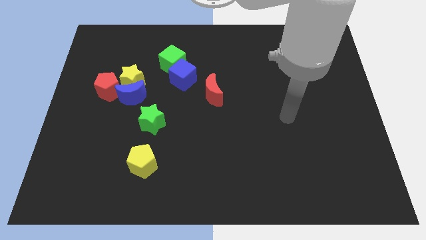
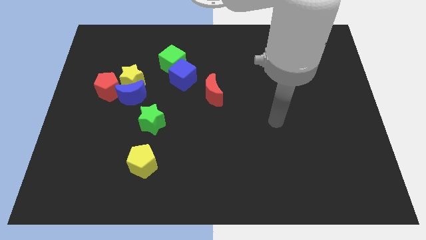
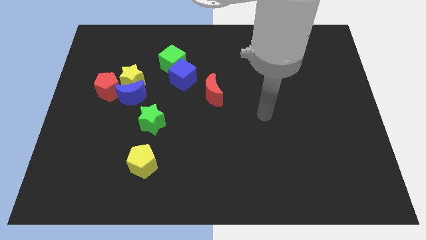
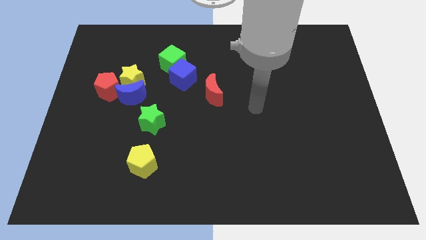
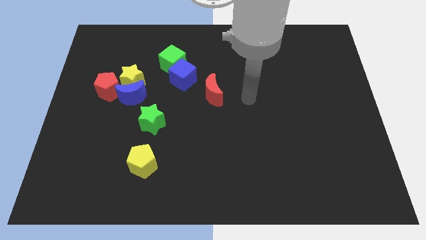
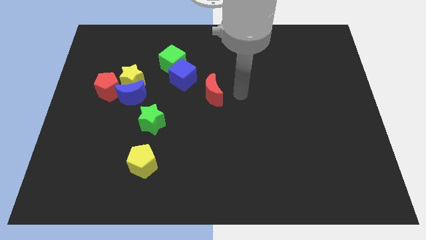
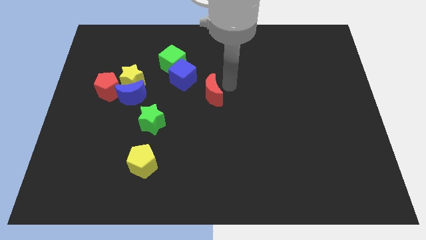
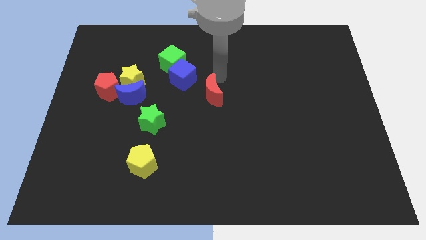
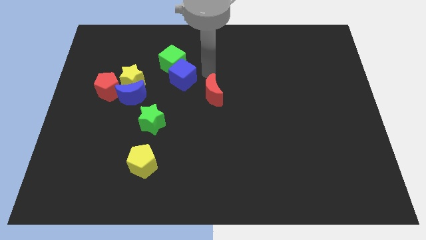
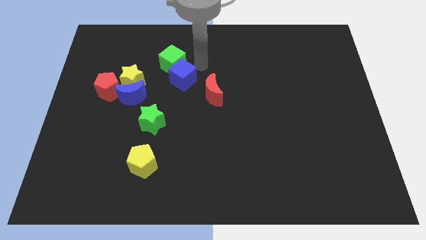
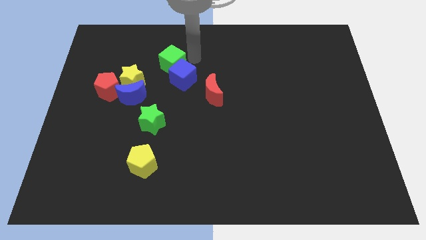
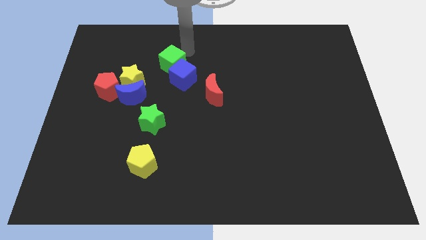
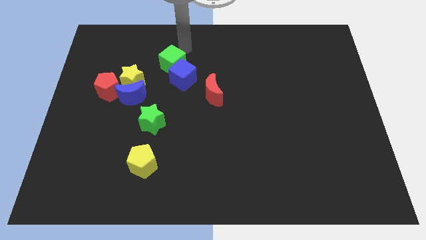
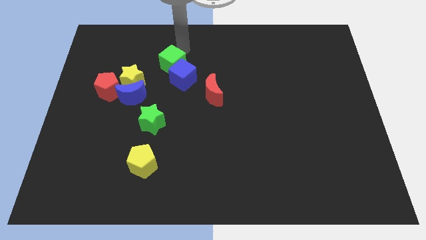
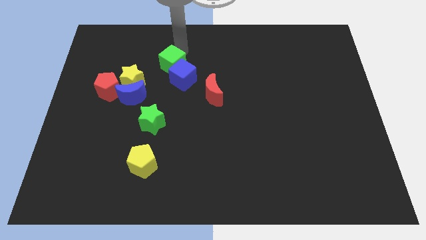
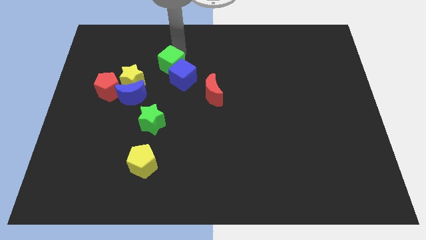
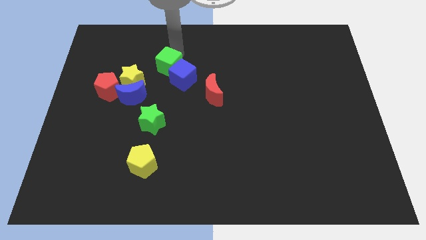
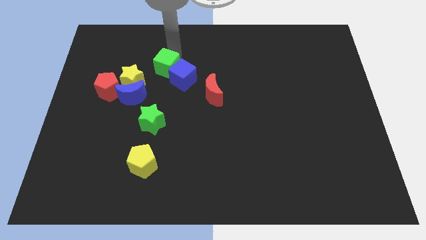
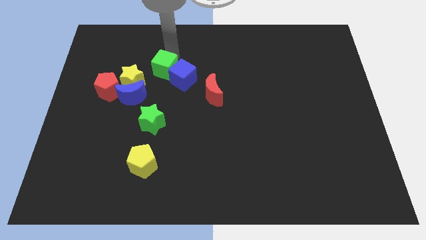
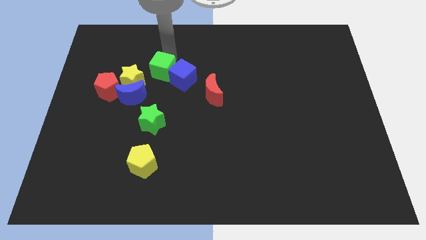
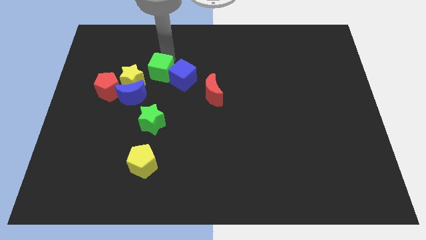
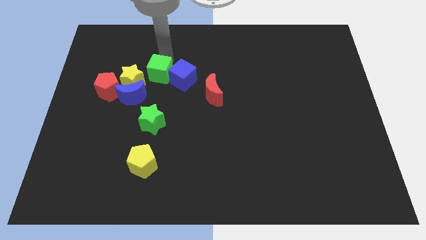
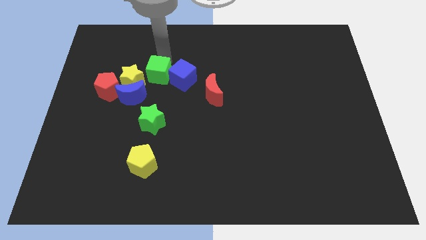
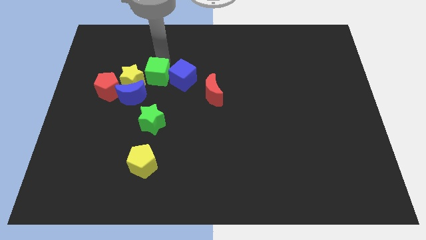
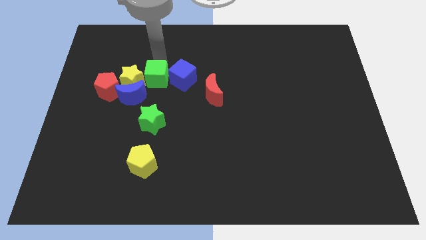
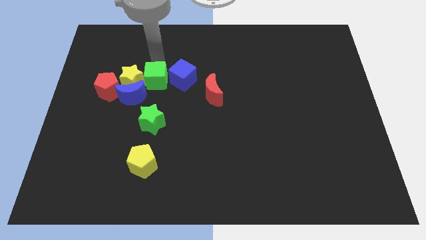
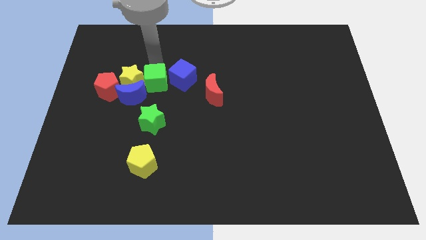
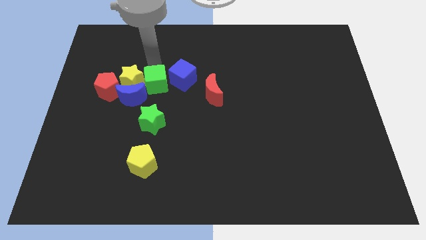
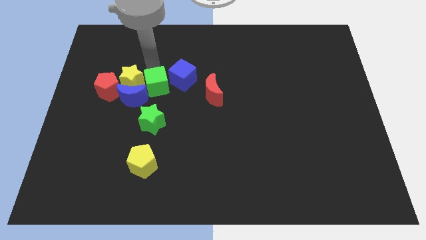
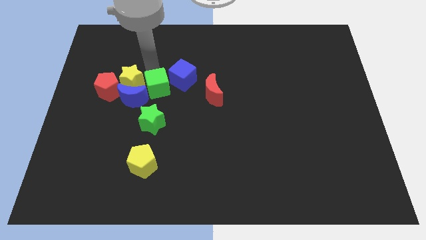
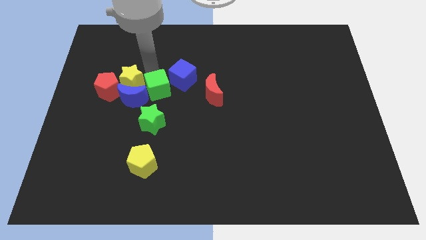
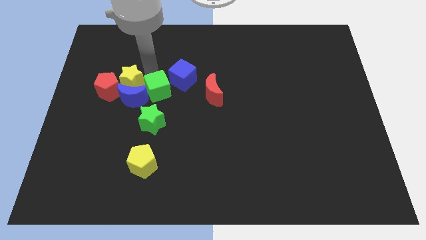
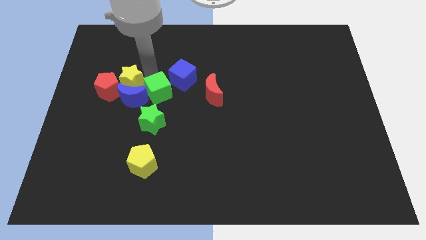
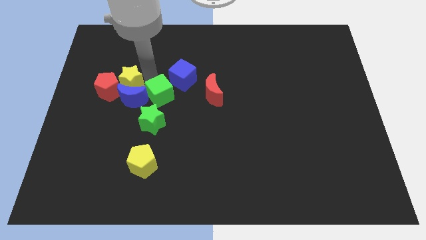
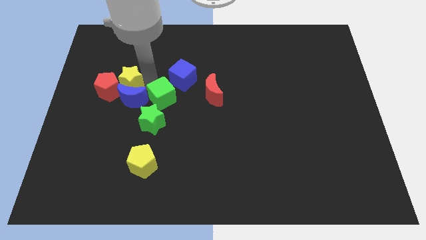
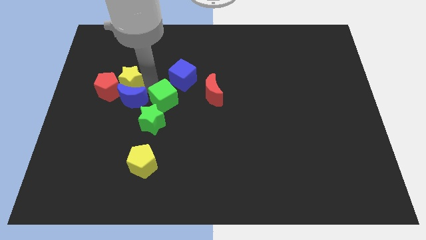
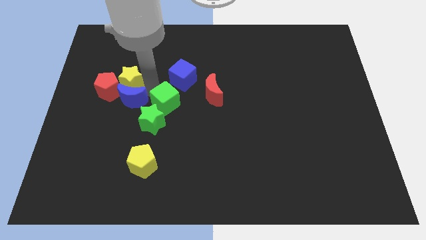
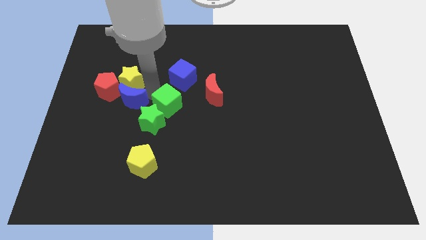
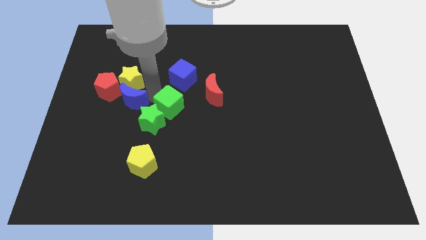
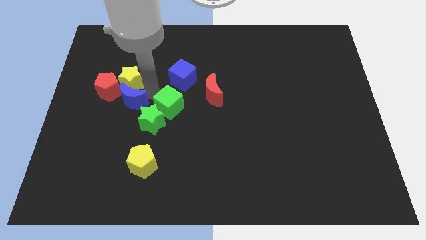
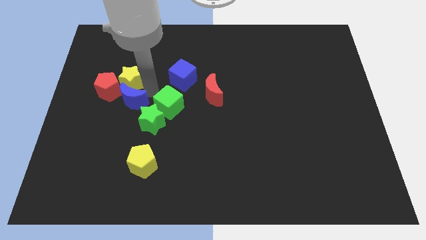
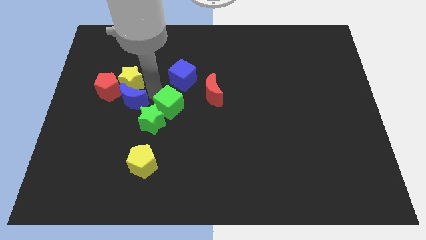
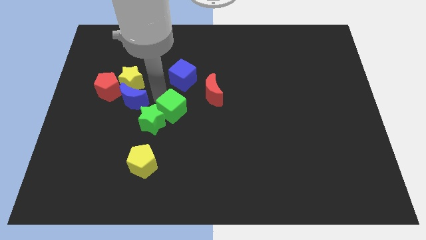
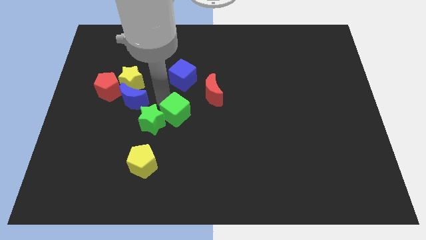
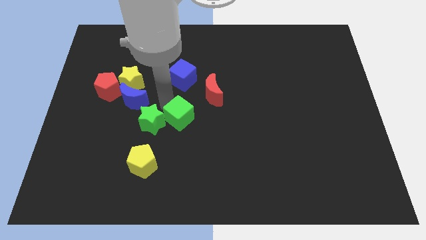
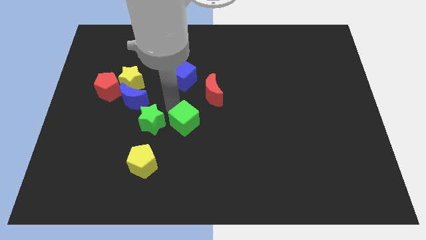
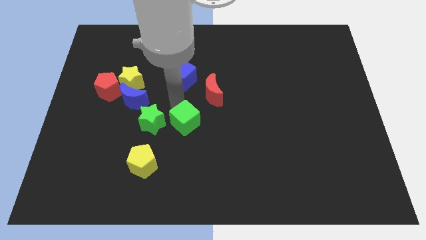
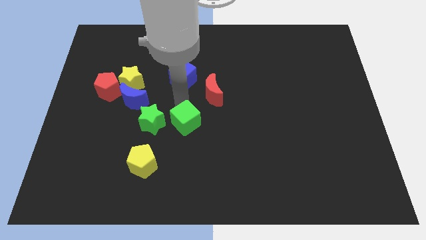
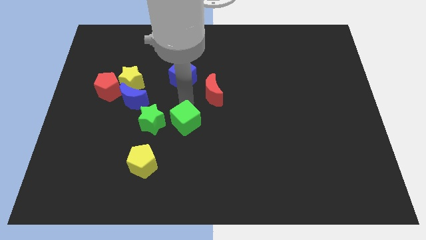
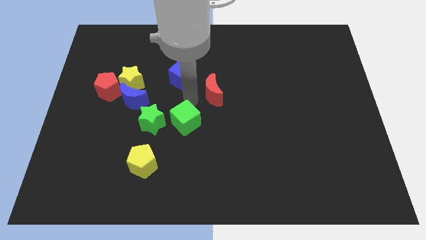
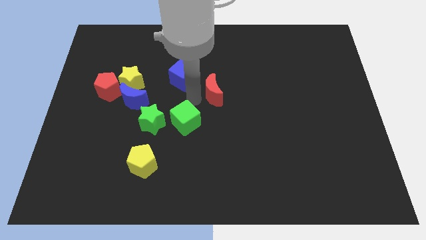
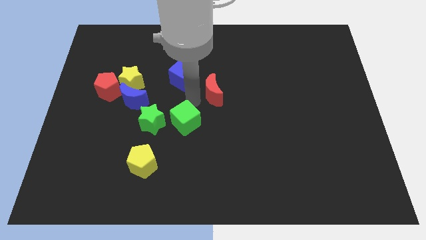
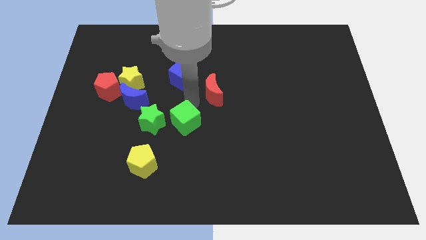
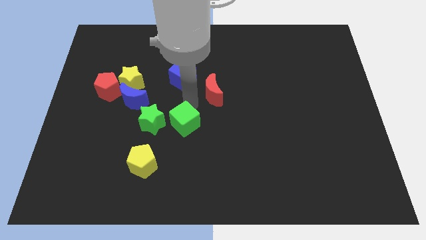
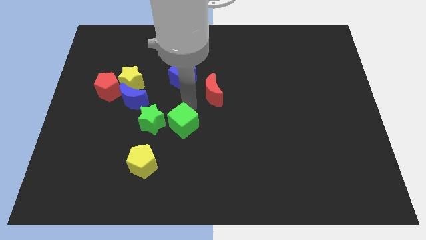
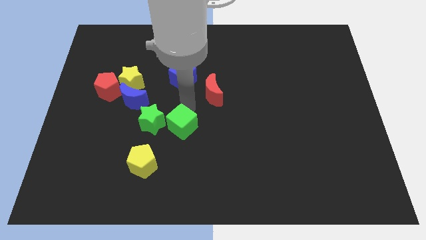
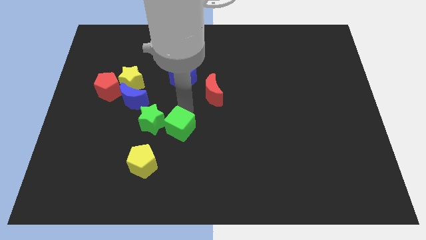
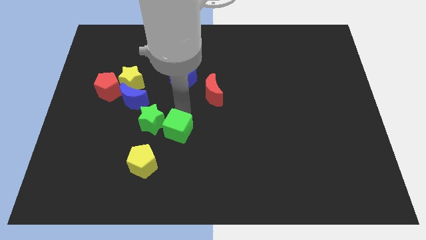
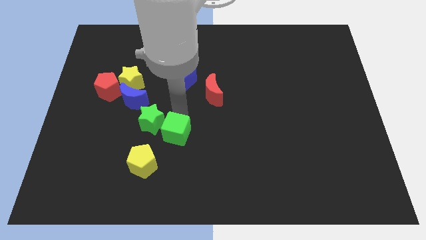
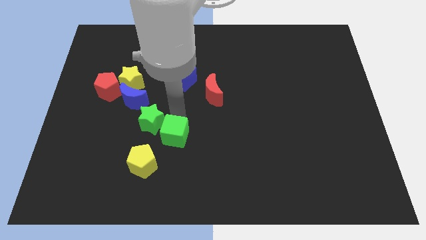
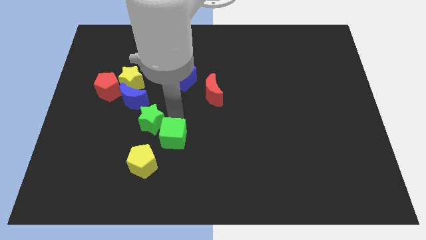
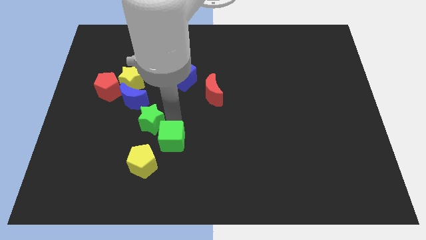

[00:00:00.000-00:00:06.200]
move the green cube below the green star

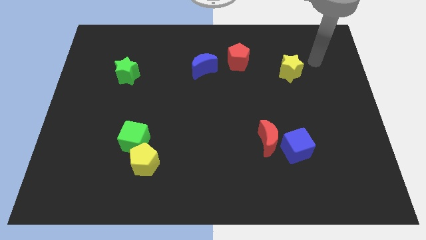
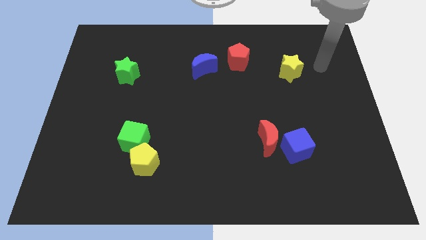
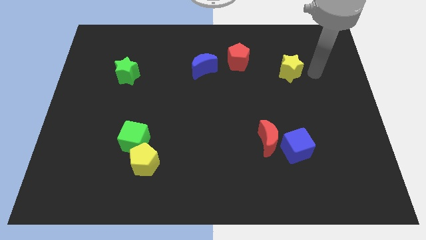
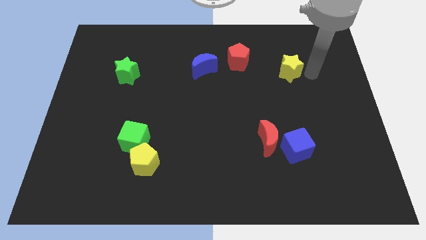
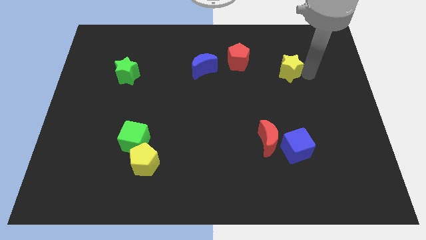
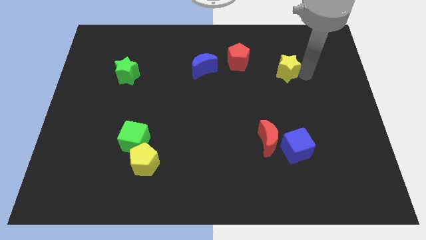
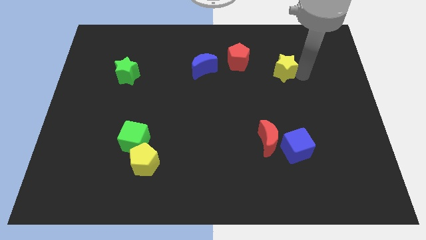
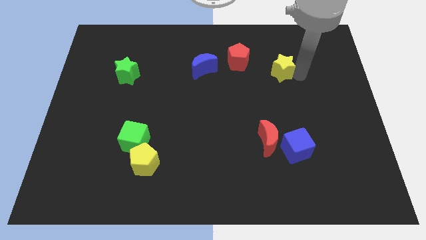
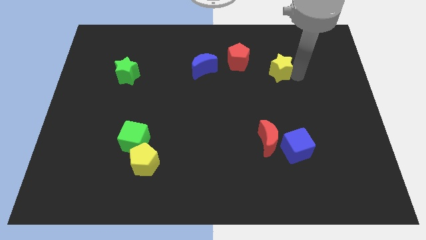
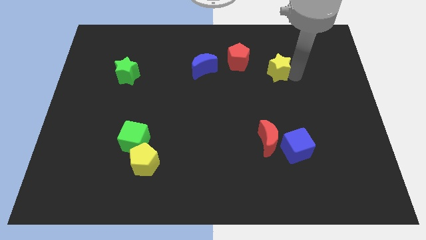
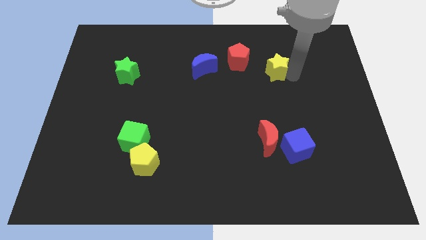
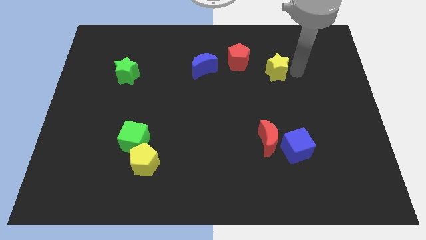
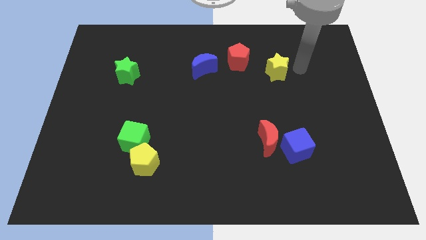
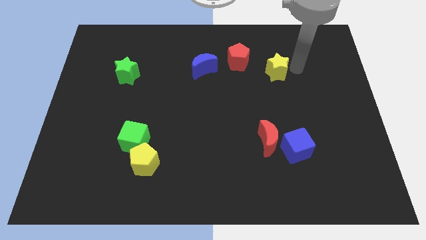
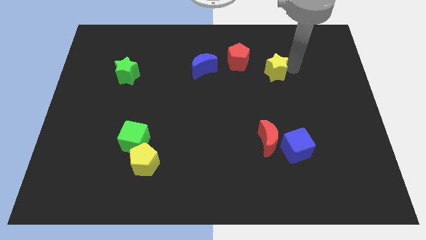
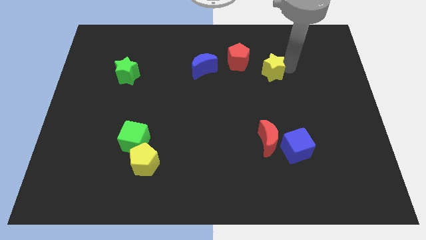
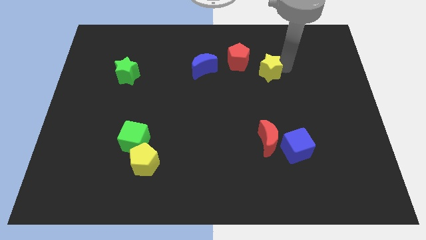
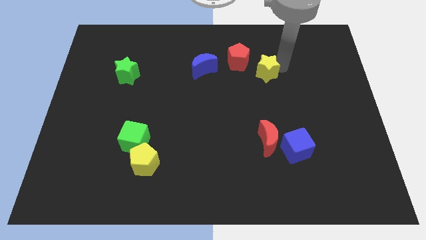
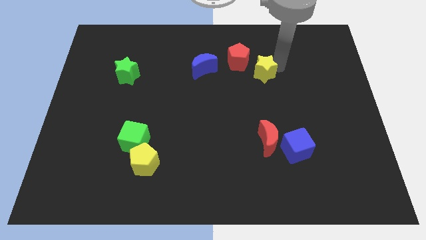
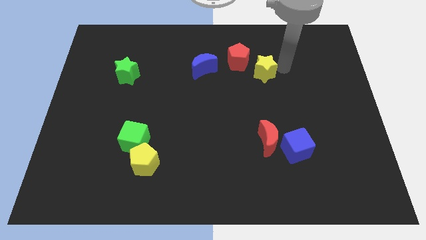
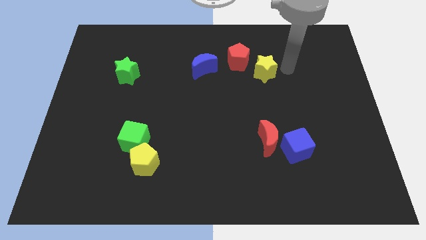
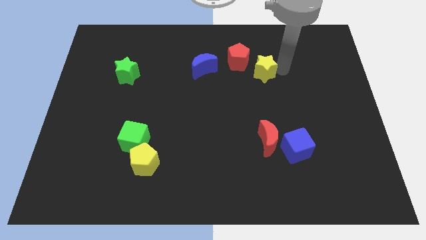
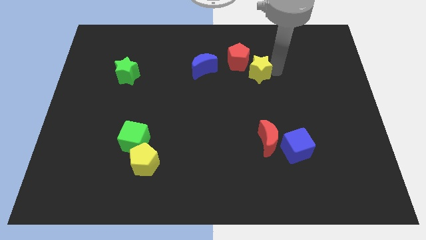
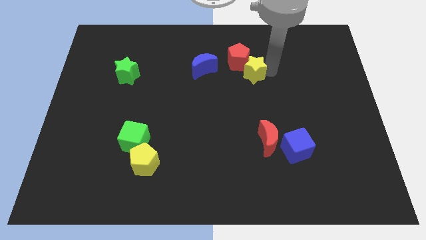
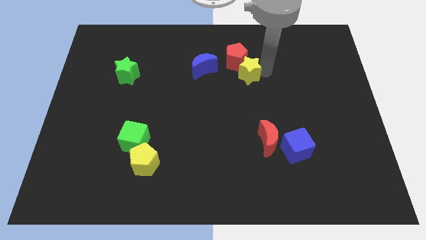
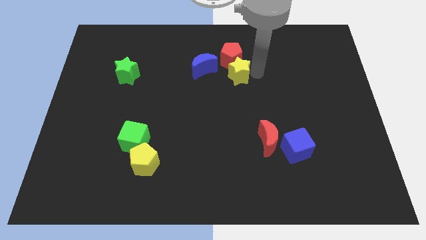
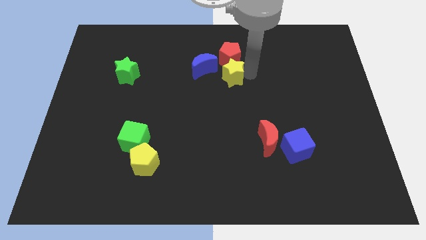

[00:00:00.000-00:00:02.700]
slide the yellow star diagonally down and to the left of the red pentagon
